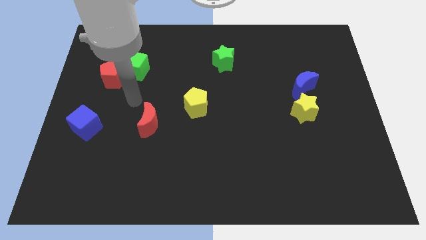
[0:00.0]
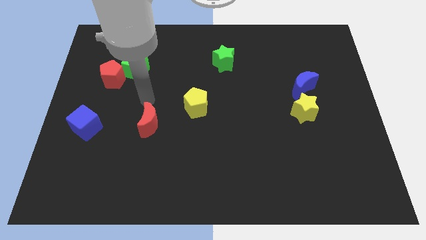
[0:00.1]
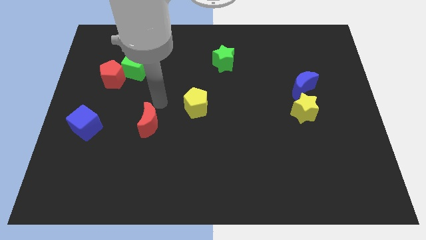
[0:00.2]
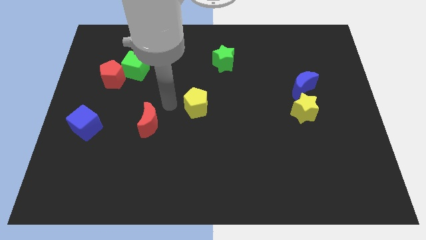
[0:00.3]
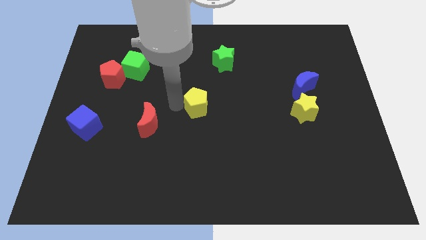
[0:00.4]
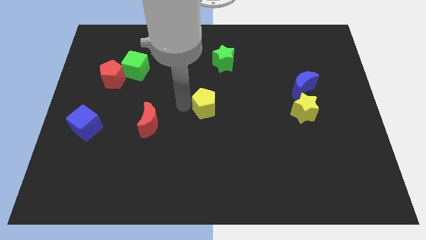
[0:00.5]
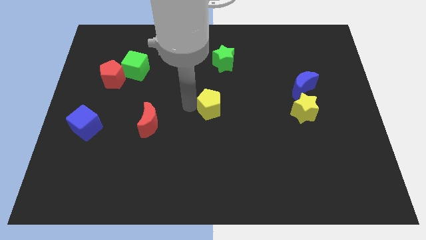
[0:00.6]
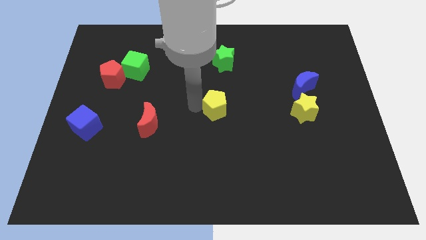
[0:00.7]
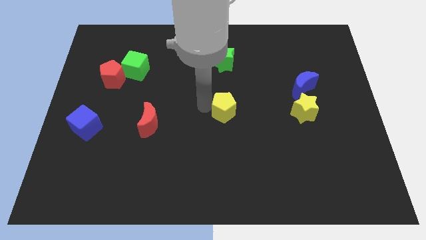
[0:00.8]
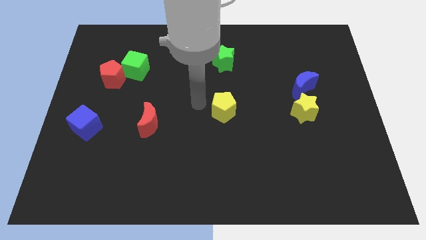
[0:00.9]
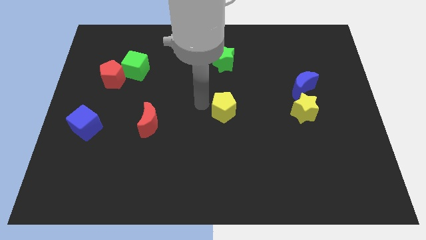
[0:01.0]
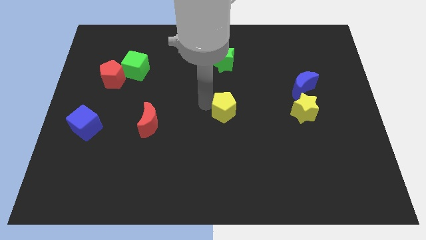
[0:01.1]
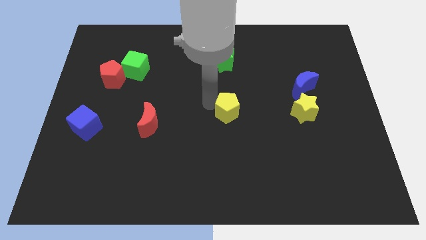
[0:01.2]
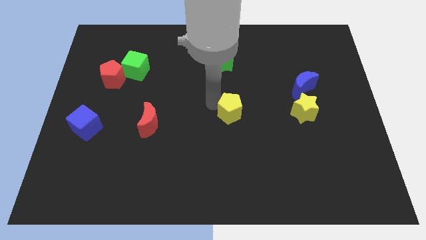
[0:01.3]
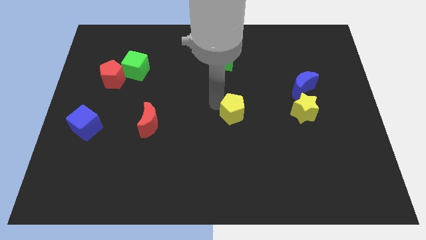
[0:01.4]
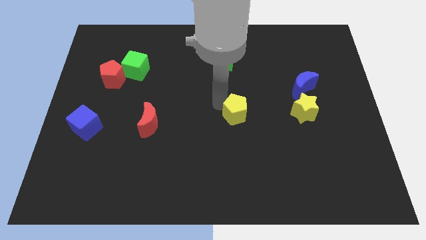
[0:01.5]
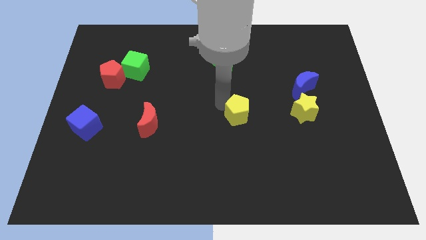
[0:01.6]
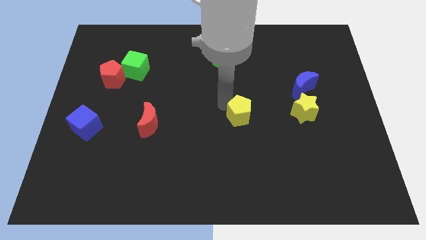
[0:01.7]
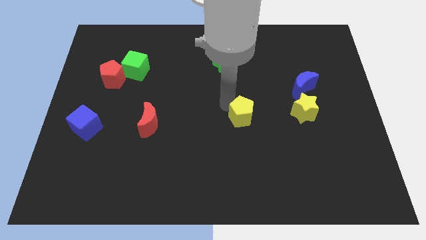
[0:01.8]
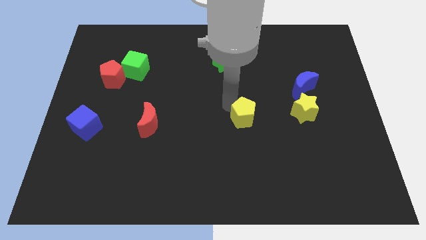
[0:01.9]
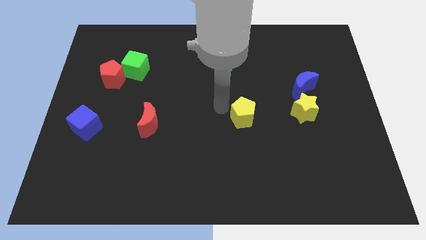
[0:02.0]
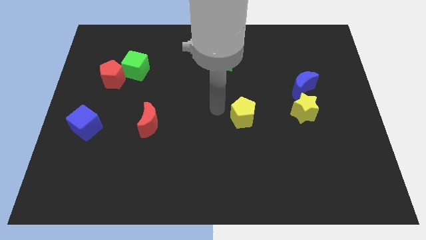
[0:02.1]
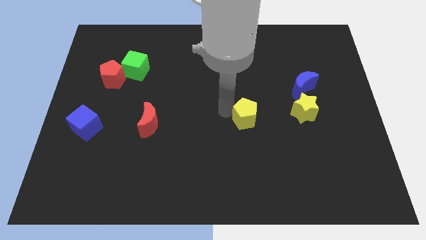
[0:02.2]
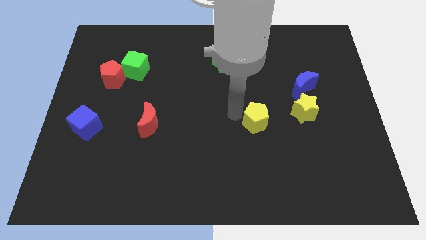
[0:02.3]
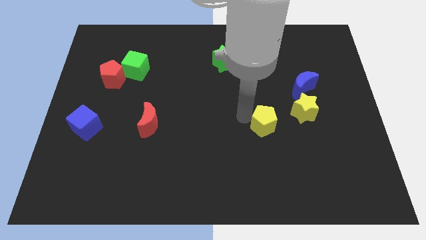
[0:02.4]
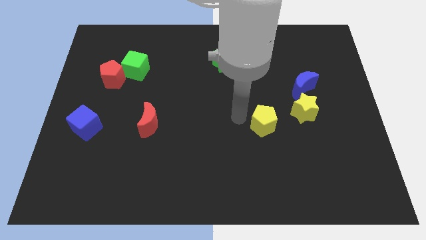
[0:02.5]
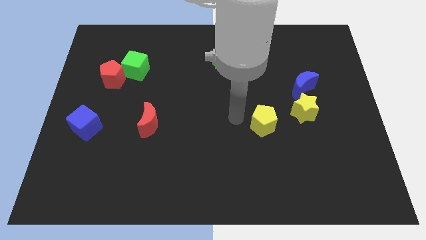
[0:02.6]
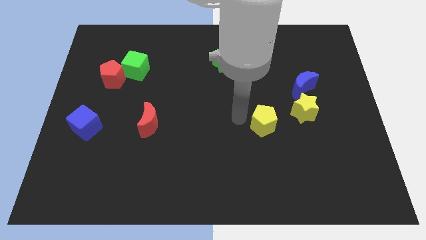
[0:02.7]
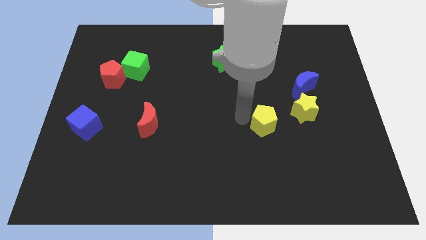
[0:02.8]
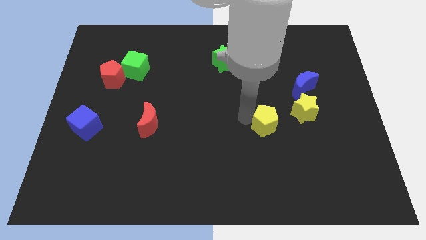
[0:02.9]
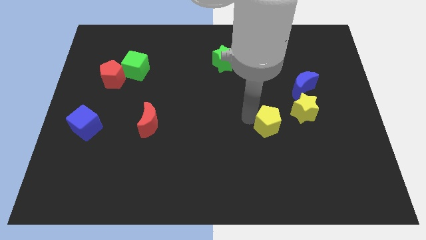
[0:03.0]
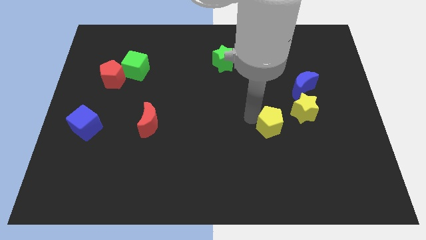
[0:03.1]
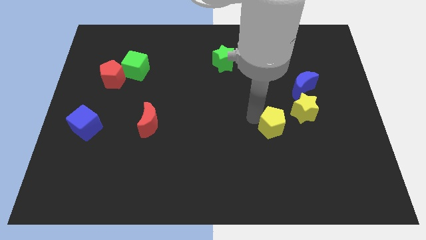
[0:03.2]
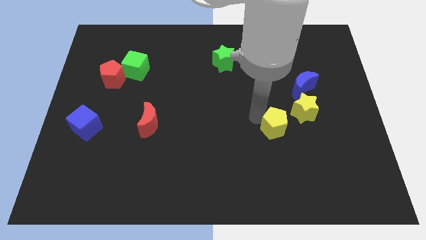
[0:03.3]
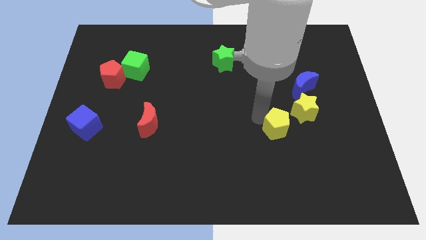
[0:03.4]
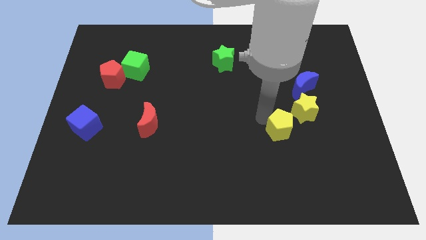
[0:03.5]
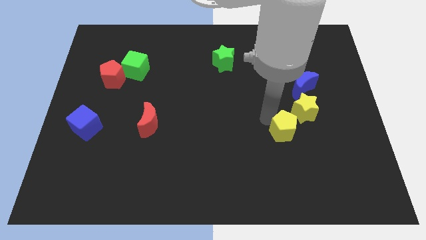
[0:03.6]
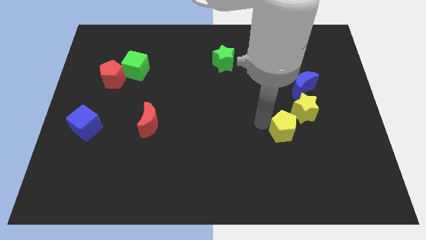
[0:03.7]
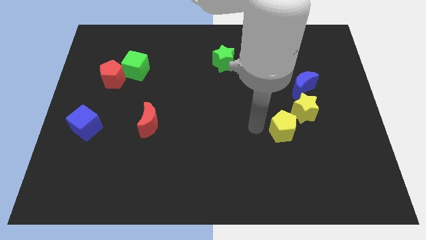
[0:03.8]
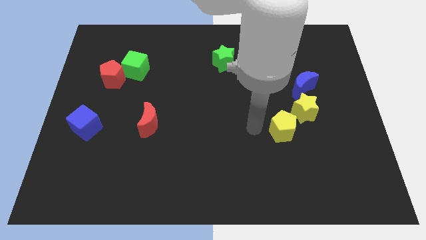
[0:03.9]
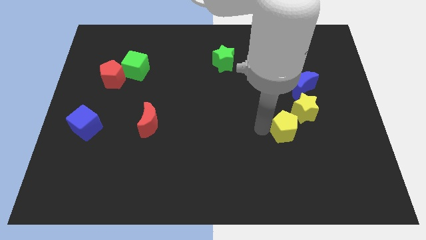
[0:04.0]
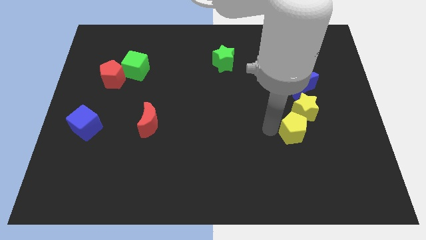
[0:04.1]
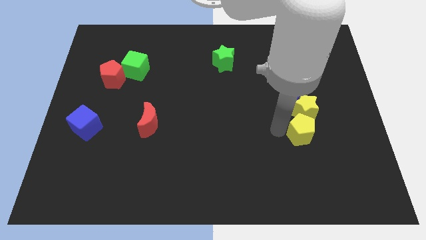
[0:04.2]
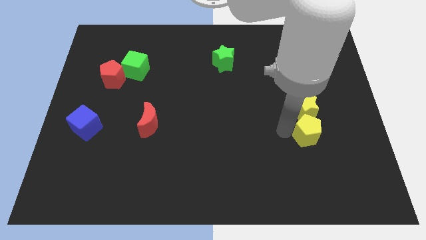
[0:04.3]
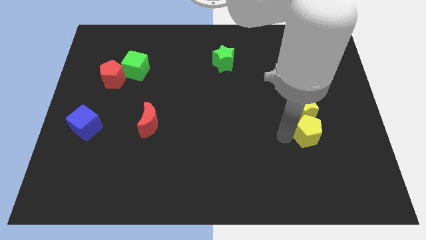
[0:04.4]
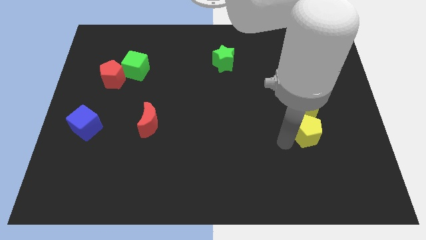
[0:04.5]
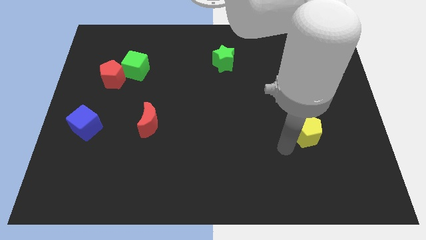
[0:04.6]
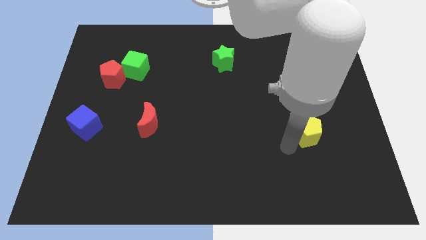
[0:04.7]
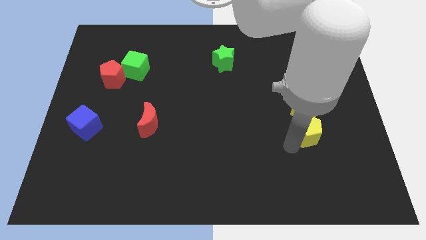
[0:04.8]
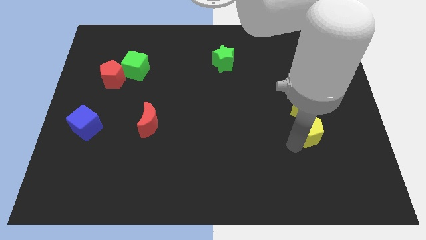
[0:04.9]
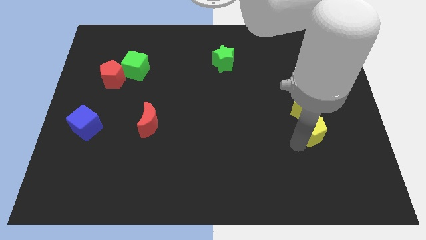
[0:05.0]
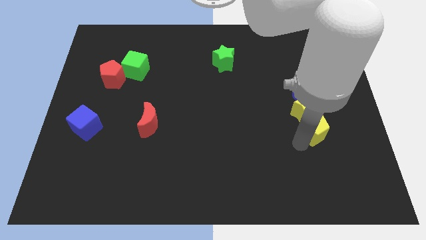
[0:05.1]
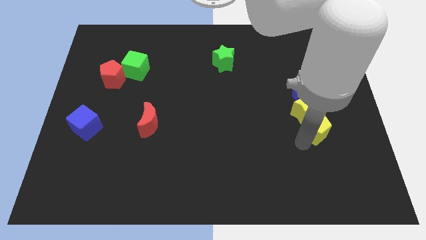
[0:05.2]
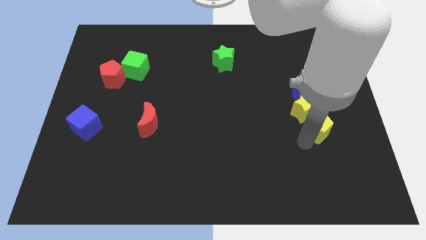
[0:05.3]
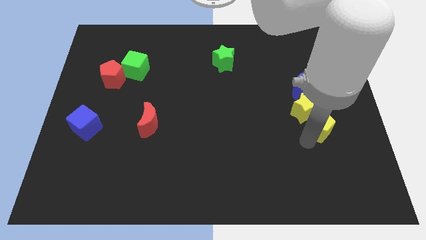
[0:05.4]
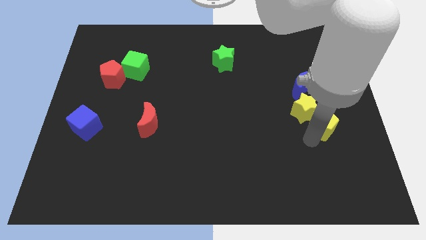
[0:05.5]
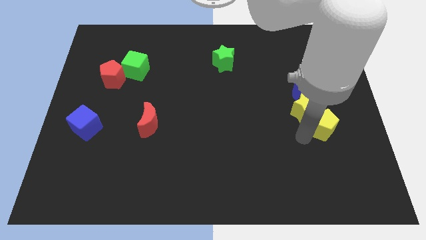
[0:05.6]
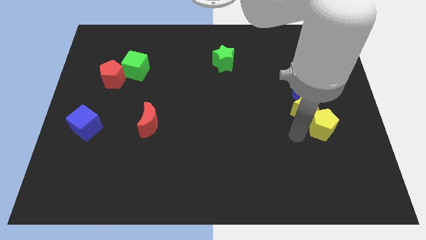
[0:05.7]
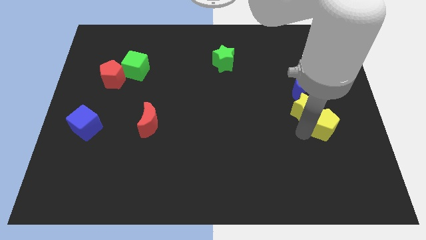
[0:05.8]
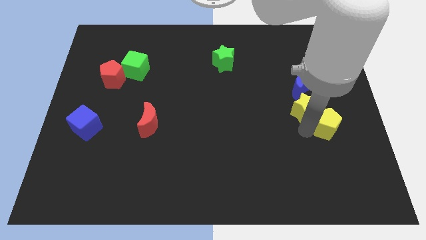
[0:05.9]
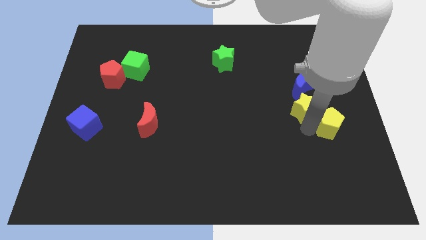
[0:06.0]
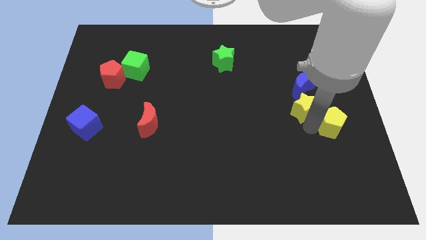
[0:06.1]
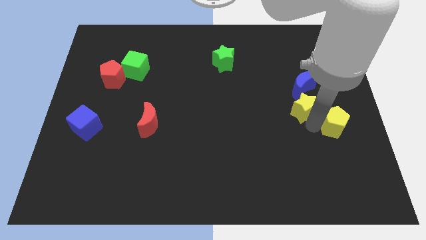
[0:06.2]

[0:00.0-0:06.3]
slide the yellow pentagon to the right side of the board

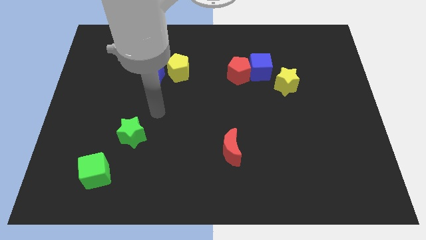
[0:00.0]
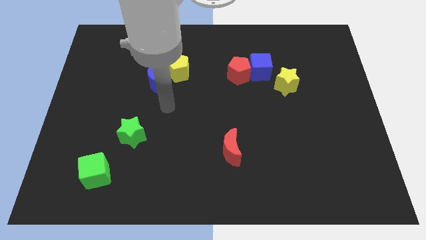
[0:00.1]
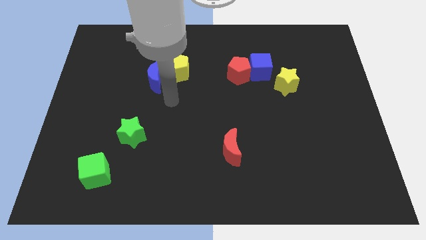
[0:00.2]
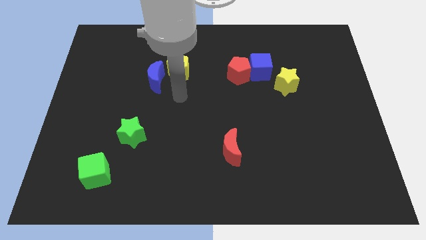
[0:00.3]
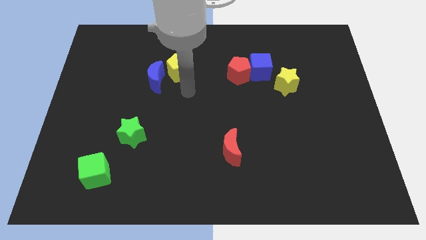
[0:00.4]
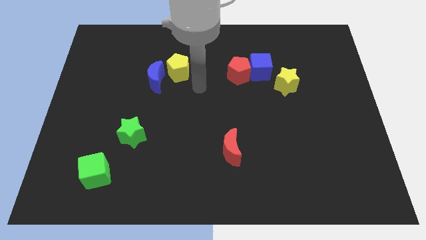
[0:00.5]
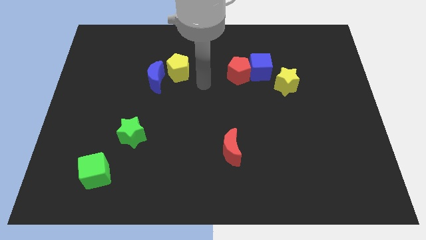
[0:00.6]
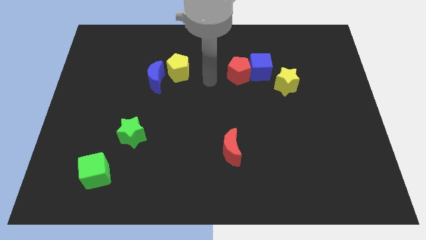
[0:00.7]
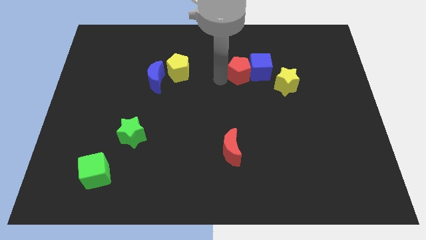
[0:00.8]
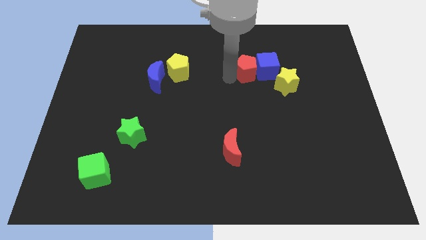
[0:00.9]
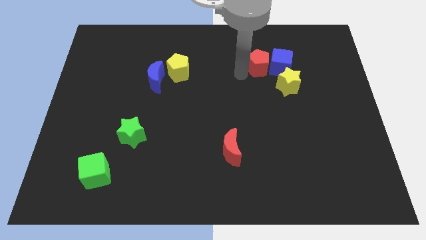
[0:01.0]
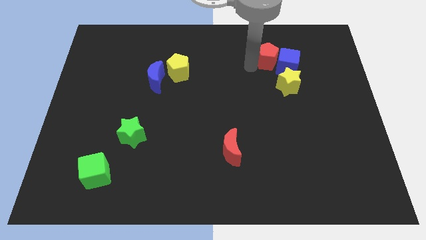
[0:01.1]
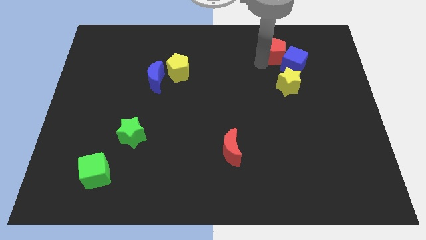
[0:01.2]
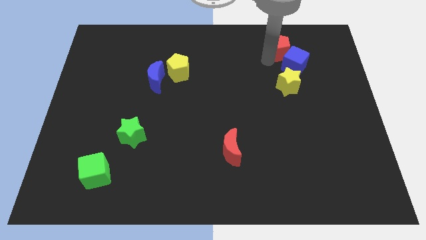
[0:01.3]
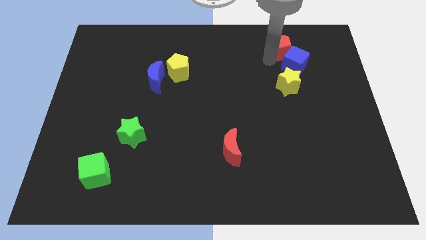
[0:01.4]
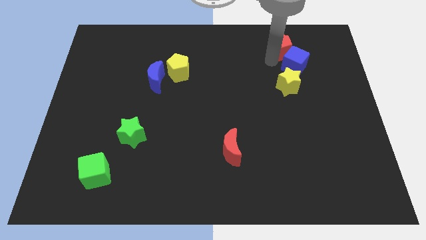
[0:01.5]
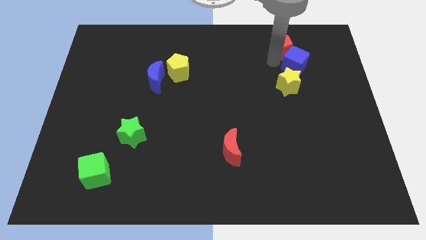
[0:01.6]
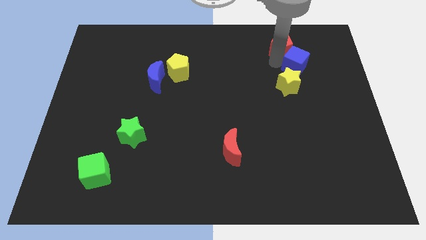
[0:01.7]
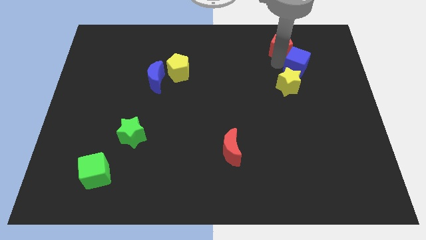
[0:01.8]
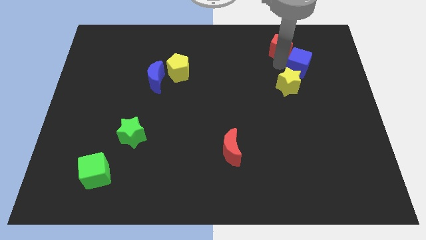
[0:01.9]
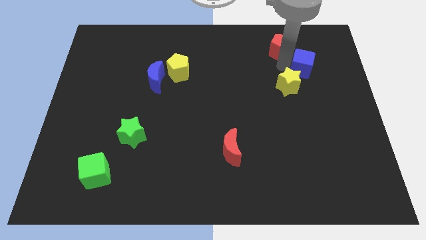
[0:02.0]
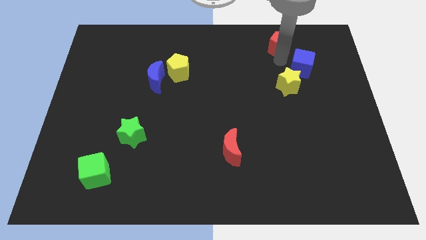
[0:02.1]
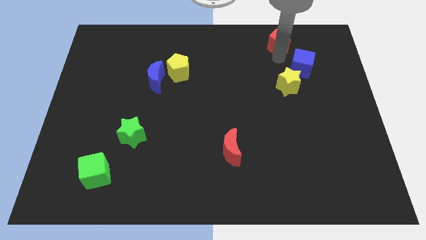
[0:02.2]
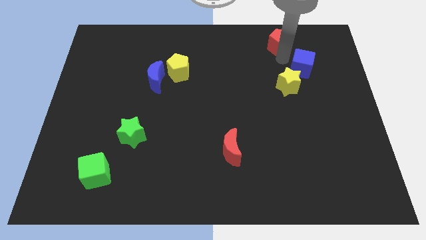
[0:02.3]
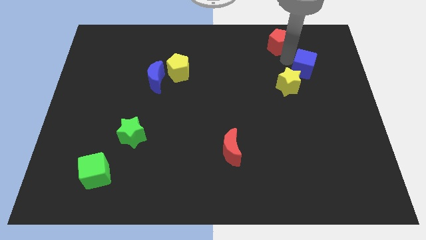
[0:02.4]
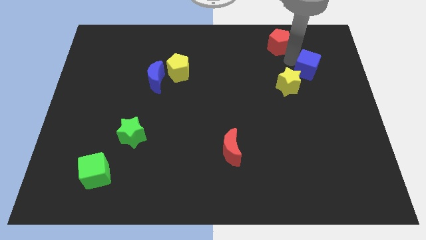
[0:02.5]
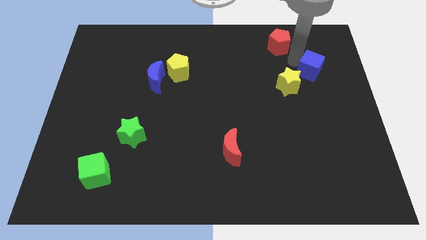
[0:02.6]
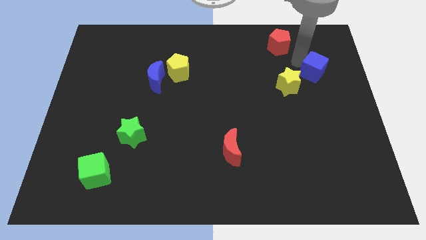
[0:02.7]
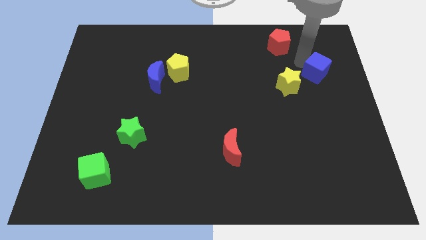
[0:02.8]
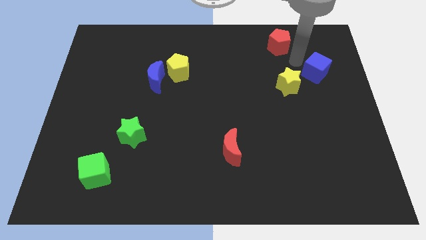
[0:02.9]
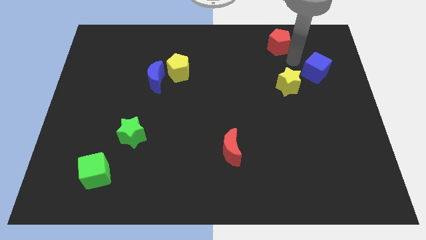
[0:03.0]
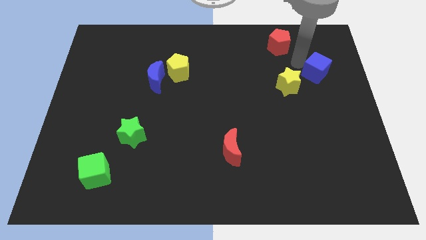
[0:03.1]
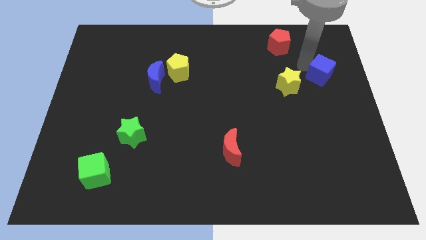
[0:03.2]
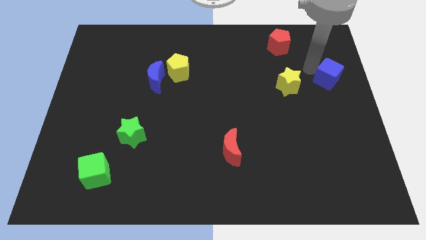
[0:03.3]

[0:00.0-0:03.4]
push the blue cube to the right side
